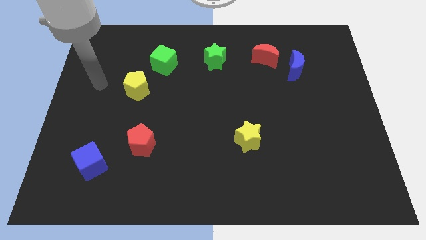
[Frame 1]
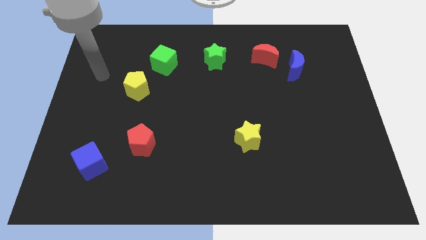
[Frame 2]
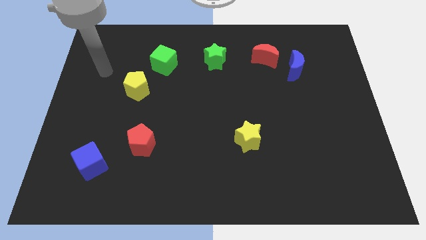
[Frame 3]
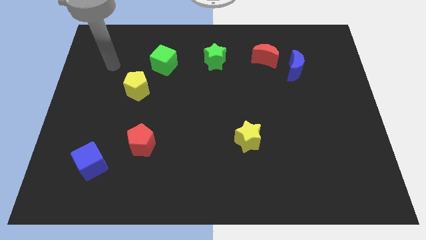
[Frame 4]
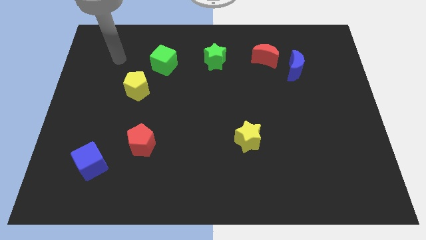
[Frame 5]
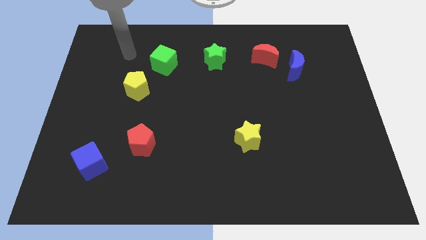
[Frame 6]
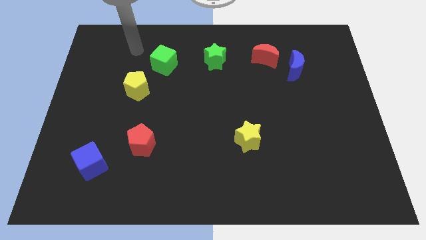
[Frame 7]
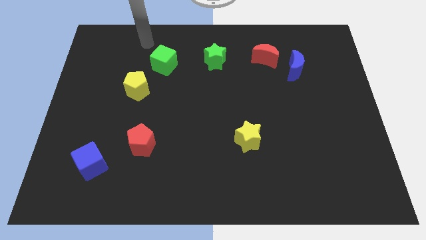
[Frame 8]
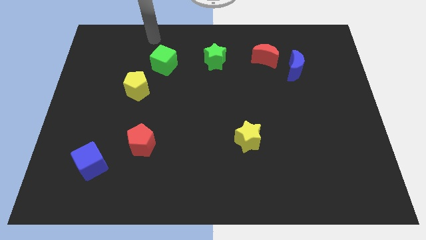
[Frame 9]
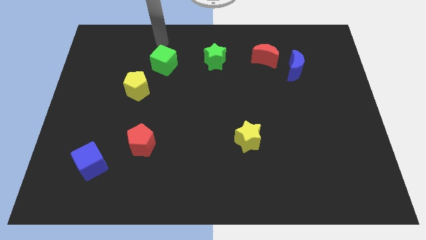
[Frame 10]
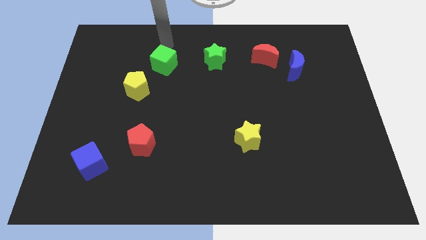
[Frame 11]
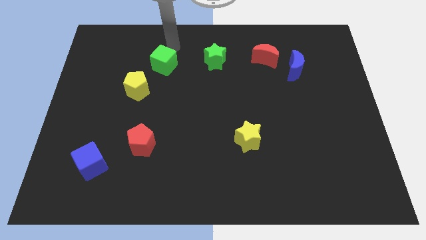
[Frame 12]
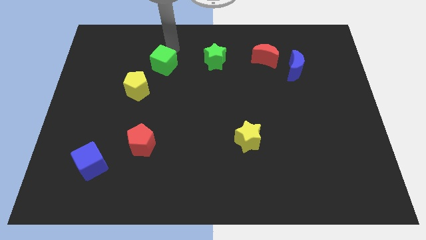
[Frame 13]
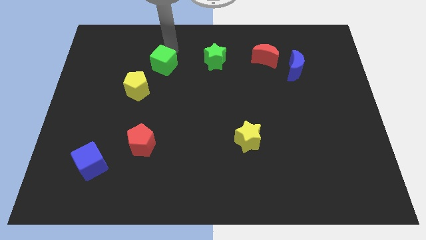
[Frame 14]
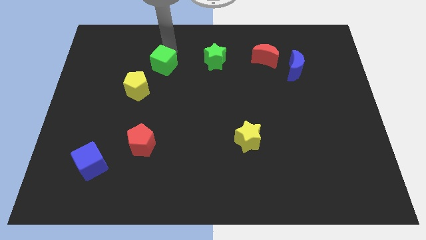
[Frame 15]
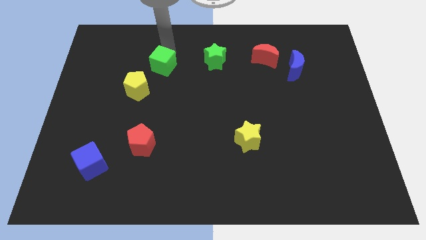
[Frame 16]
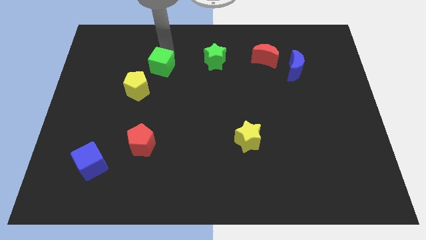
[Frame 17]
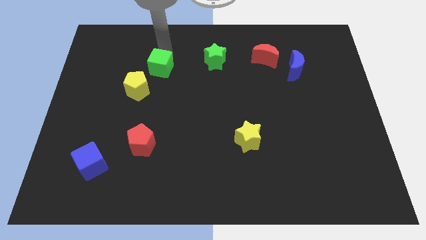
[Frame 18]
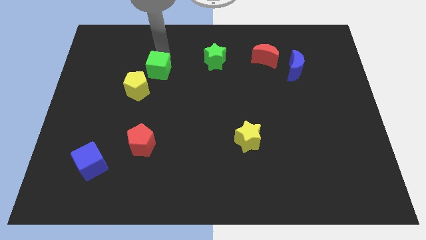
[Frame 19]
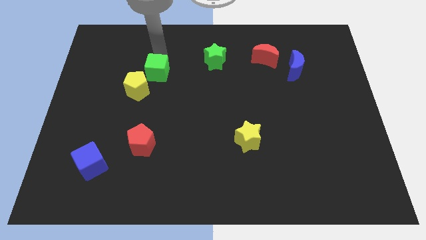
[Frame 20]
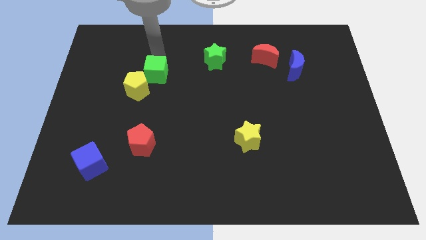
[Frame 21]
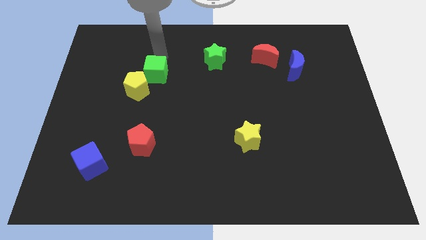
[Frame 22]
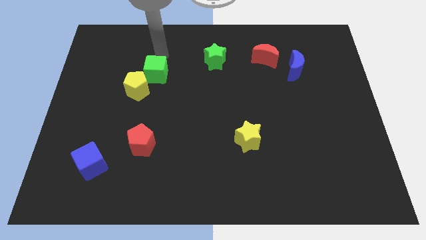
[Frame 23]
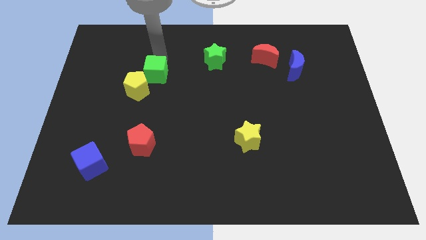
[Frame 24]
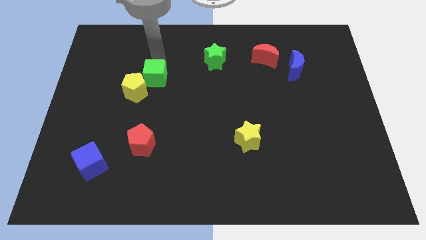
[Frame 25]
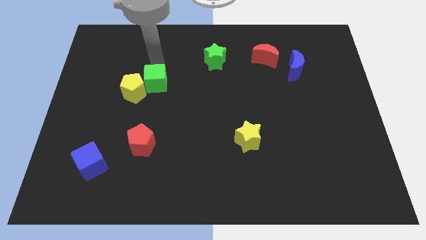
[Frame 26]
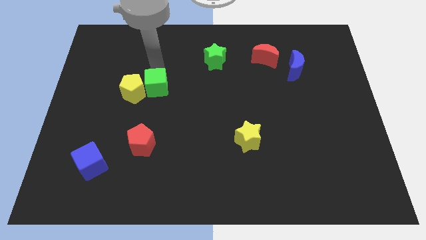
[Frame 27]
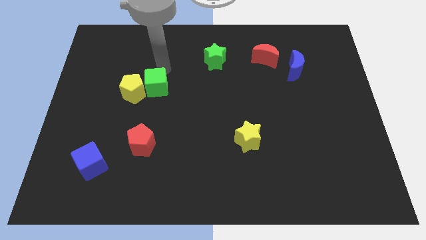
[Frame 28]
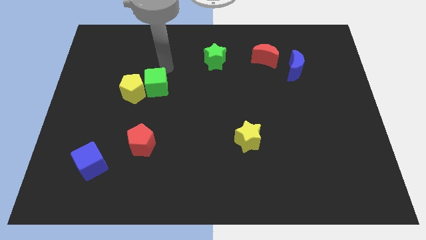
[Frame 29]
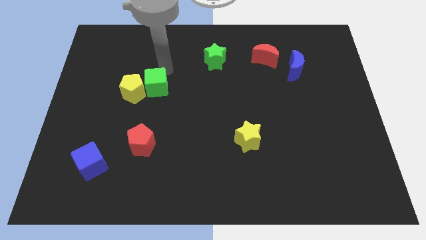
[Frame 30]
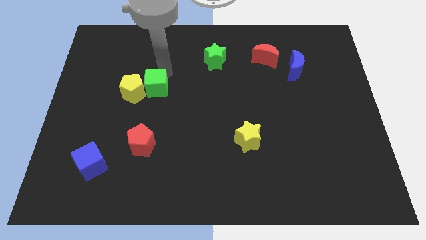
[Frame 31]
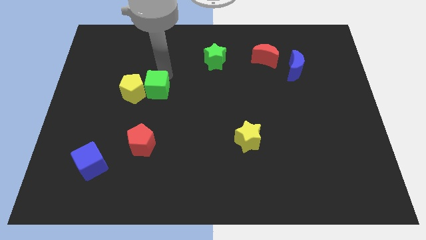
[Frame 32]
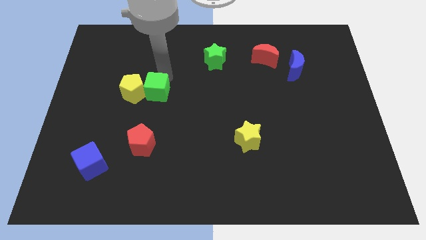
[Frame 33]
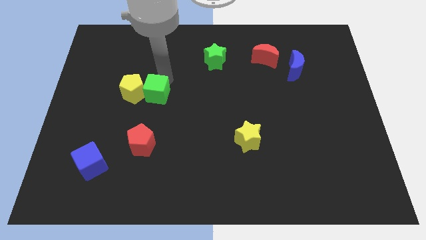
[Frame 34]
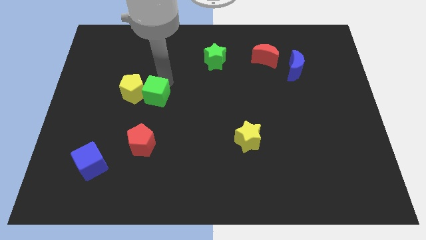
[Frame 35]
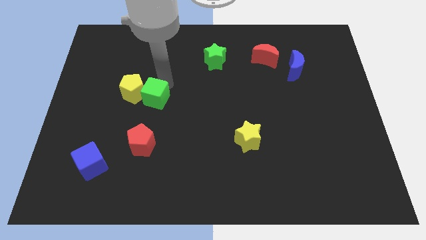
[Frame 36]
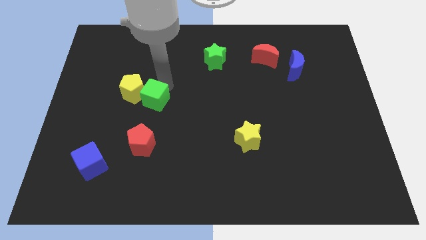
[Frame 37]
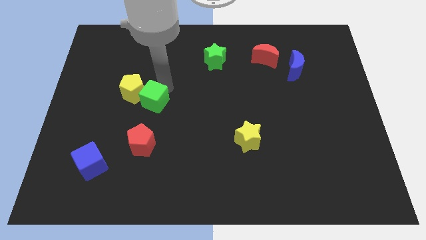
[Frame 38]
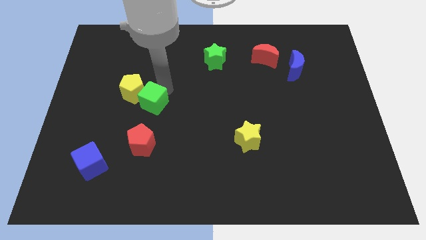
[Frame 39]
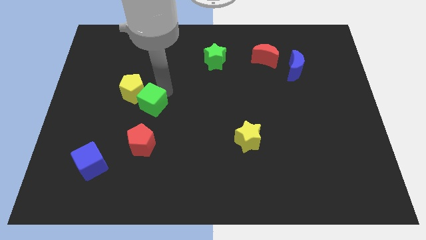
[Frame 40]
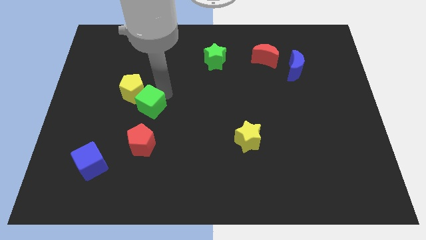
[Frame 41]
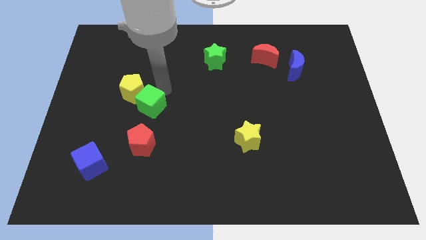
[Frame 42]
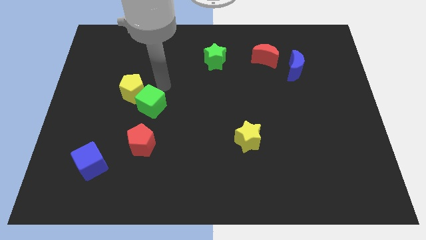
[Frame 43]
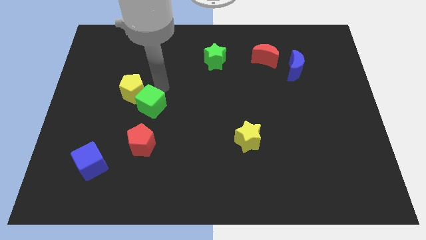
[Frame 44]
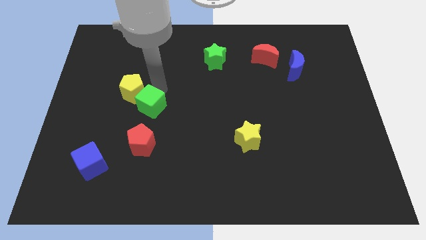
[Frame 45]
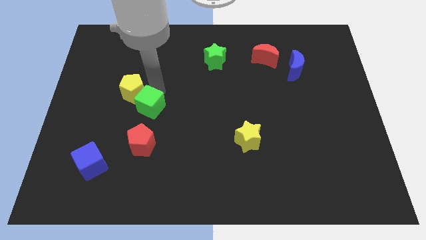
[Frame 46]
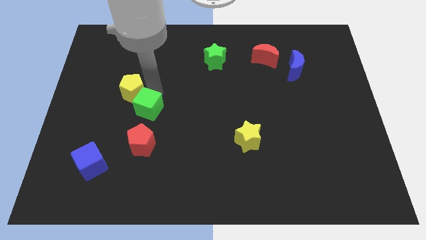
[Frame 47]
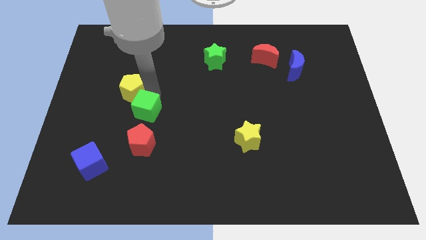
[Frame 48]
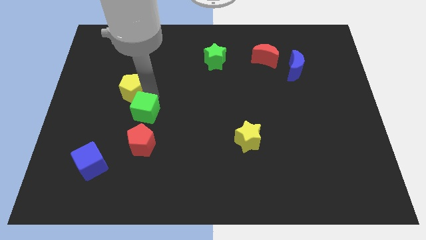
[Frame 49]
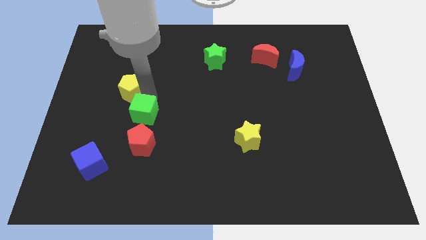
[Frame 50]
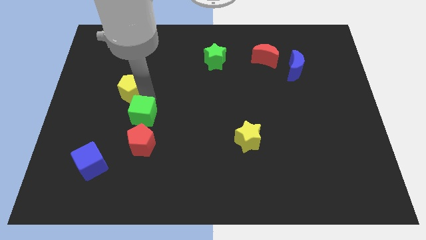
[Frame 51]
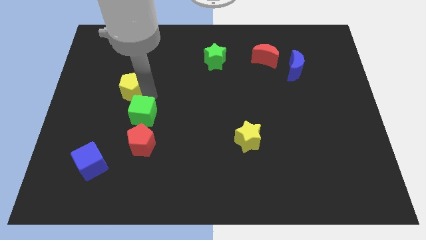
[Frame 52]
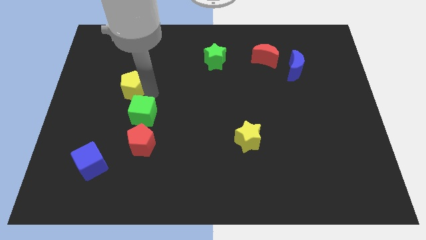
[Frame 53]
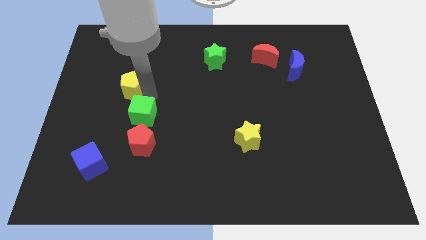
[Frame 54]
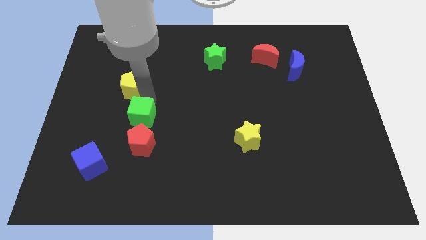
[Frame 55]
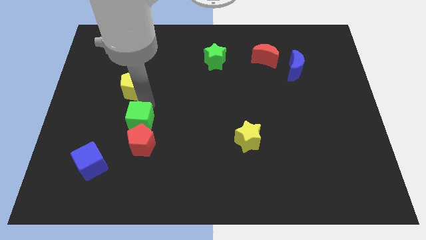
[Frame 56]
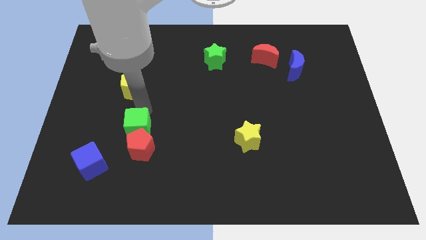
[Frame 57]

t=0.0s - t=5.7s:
push the green cube to the red pentagon

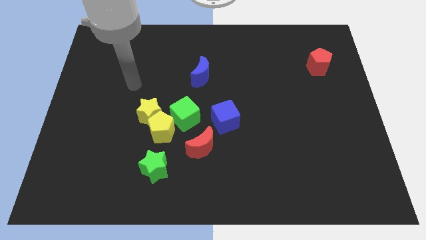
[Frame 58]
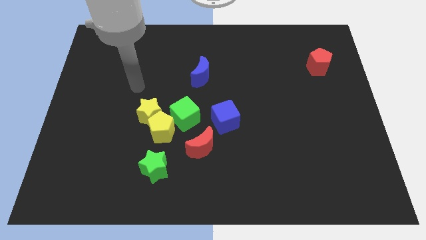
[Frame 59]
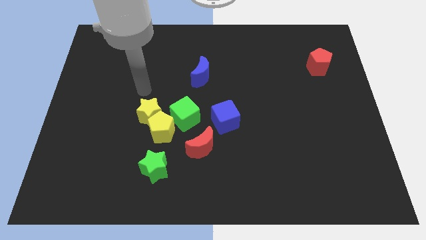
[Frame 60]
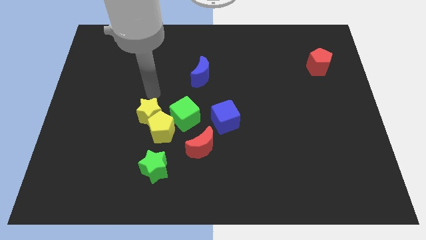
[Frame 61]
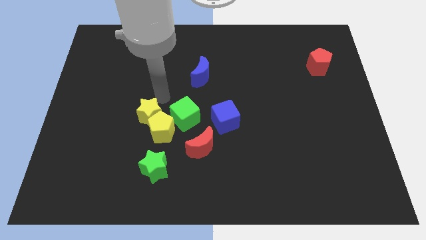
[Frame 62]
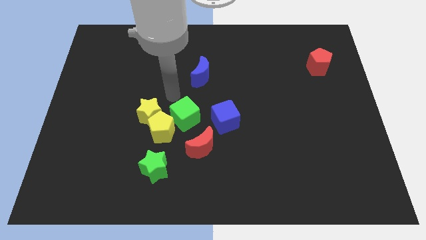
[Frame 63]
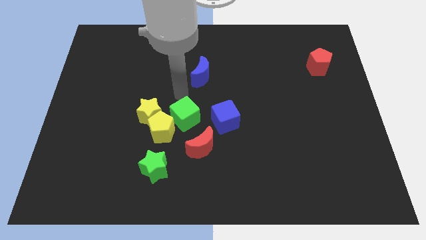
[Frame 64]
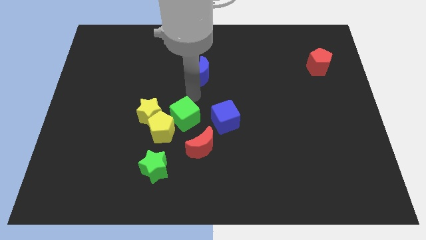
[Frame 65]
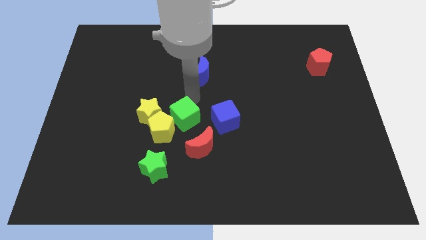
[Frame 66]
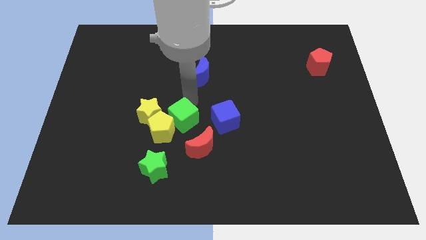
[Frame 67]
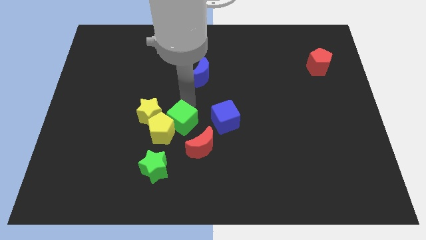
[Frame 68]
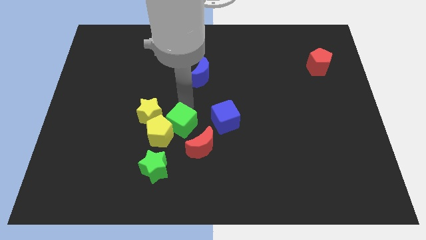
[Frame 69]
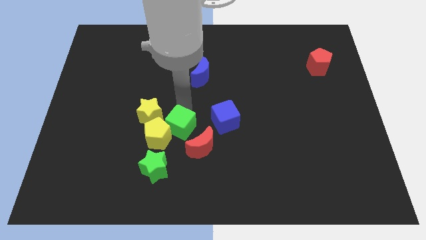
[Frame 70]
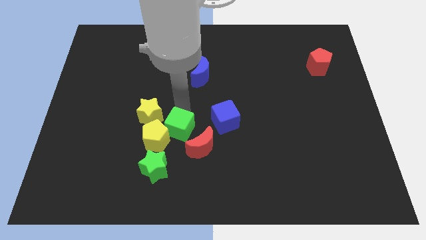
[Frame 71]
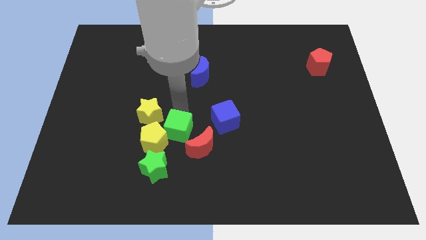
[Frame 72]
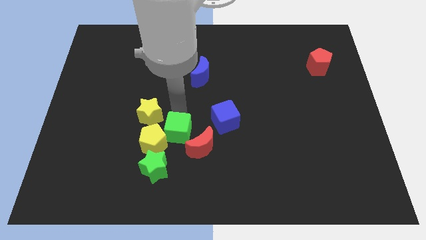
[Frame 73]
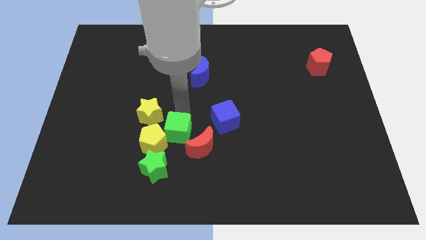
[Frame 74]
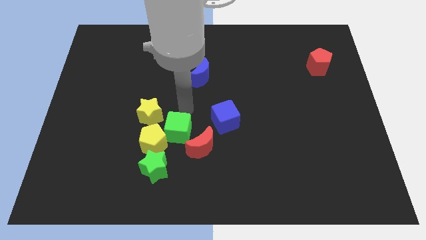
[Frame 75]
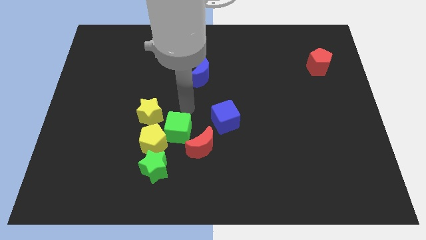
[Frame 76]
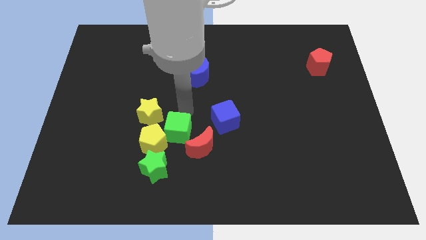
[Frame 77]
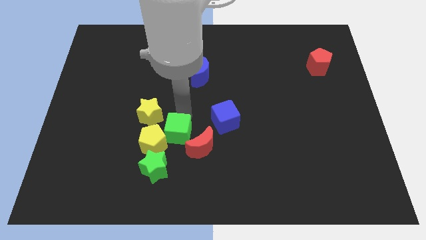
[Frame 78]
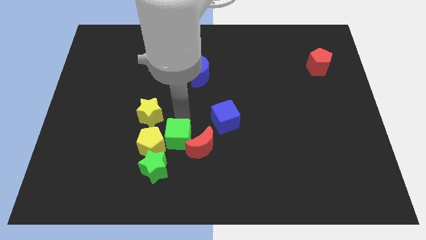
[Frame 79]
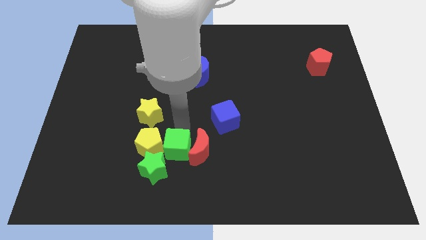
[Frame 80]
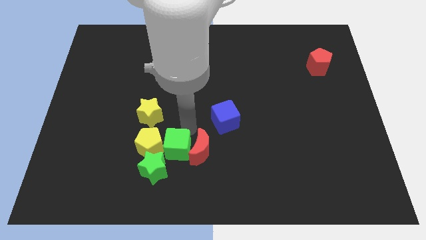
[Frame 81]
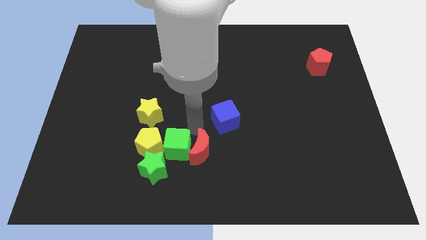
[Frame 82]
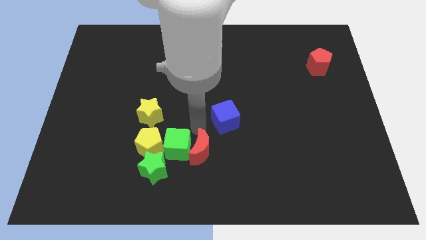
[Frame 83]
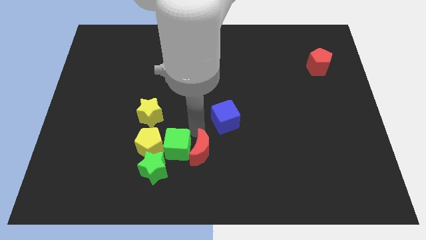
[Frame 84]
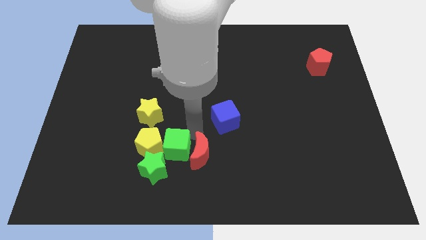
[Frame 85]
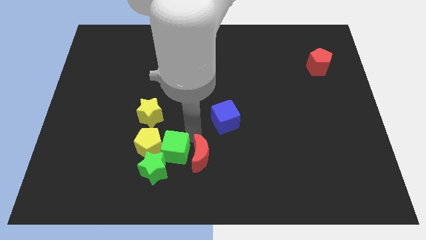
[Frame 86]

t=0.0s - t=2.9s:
move the green cube to the green star
